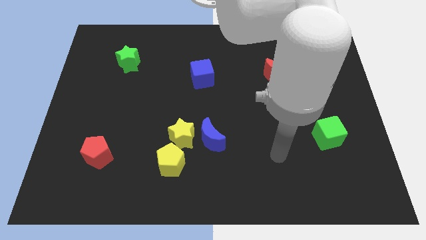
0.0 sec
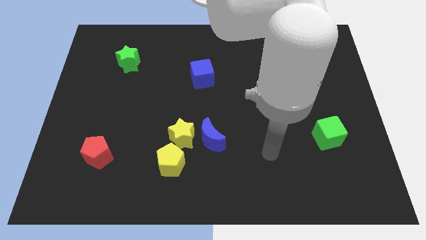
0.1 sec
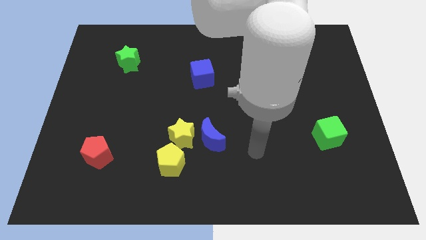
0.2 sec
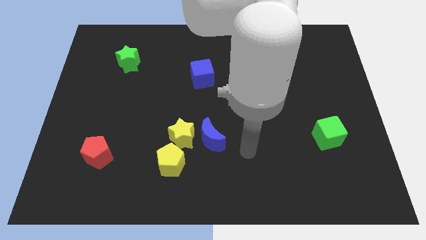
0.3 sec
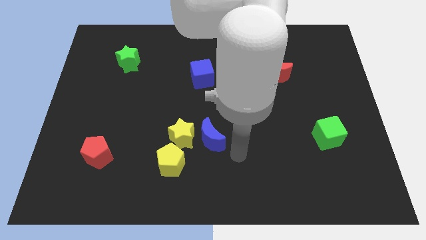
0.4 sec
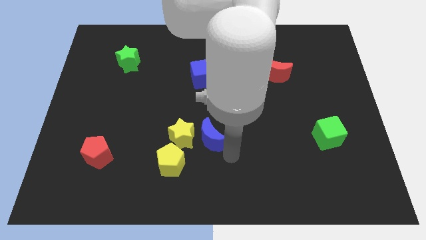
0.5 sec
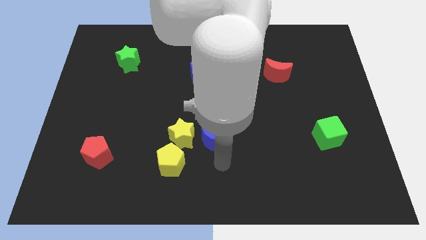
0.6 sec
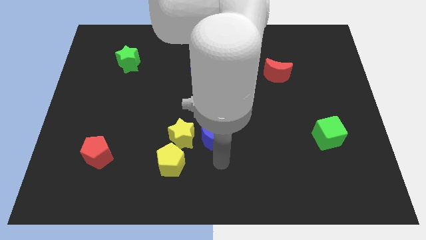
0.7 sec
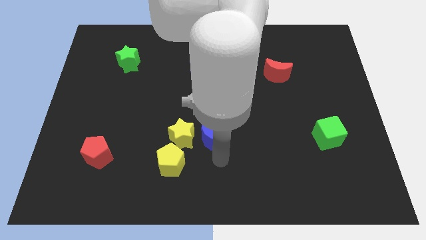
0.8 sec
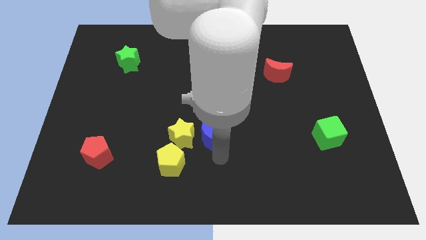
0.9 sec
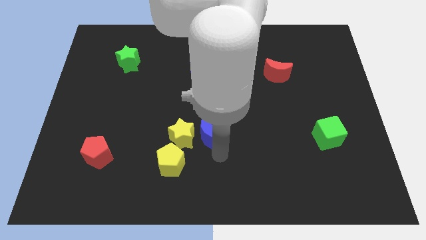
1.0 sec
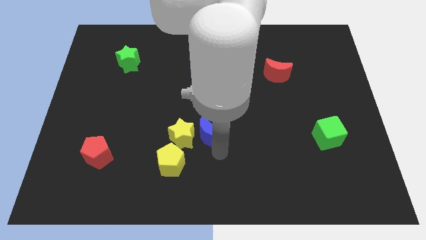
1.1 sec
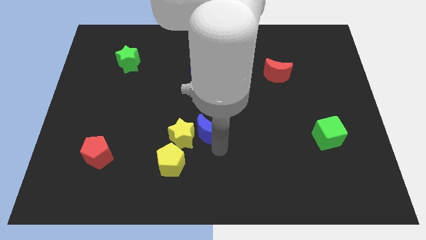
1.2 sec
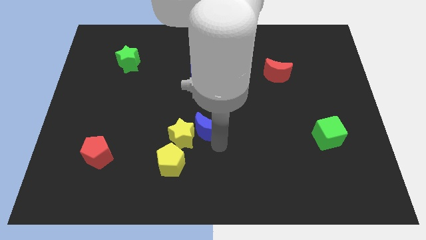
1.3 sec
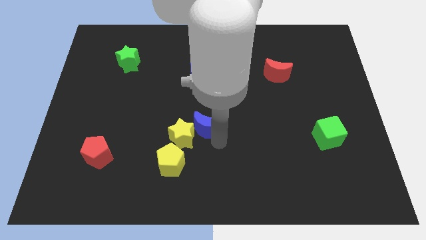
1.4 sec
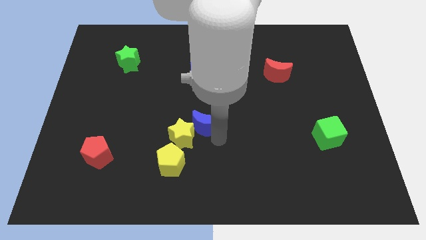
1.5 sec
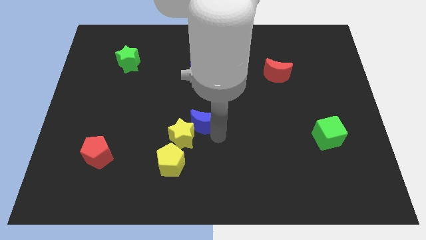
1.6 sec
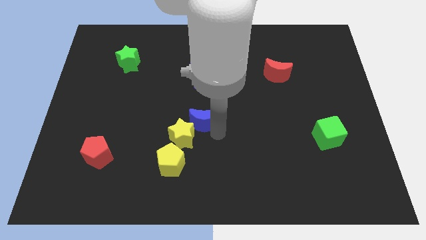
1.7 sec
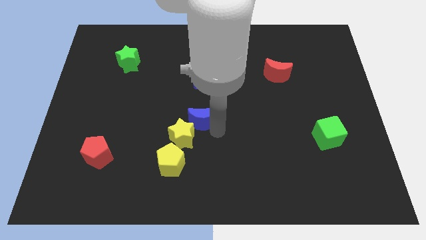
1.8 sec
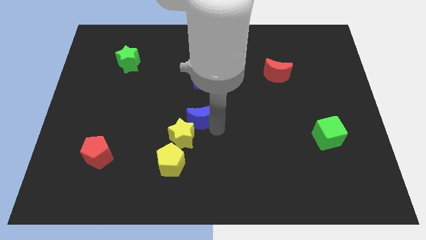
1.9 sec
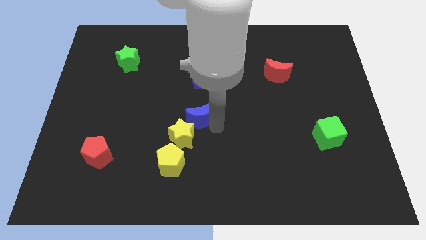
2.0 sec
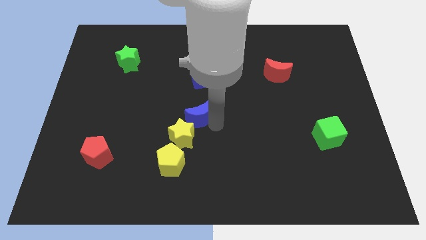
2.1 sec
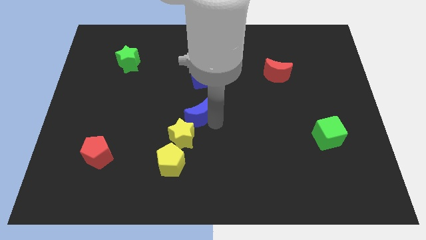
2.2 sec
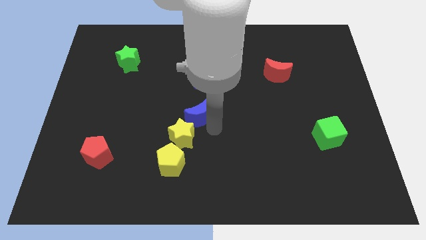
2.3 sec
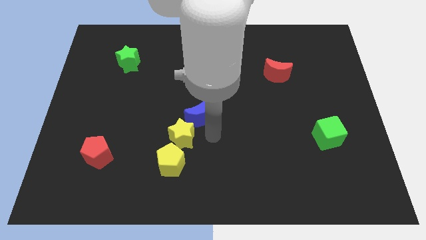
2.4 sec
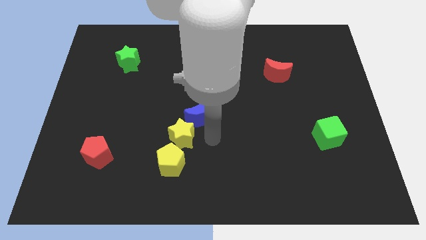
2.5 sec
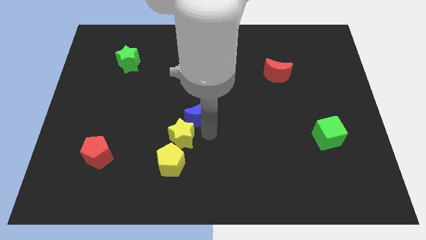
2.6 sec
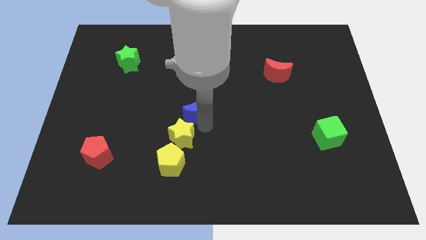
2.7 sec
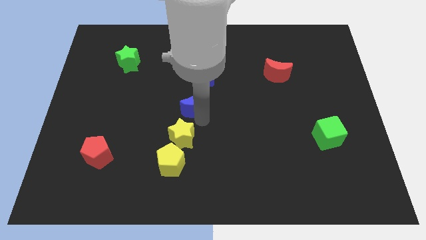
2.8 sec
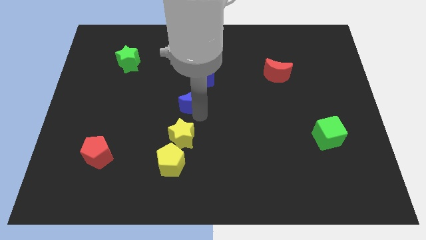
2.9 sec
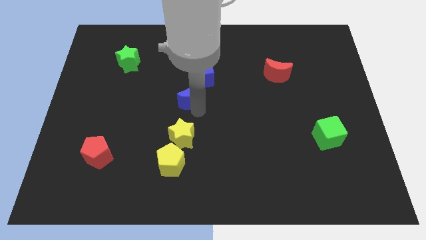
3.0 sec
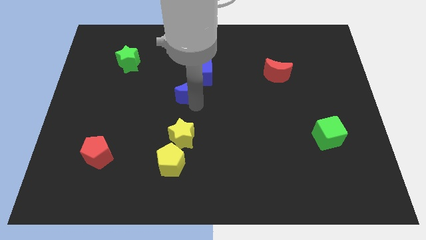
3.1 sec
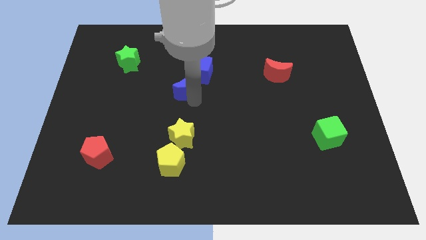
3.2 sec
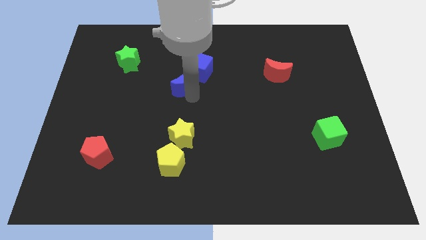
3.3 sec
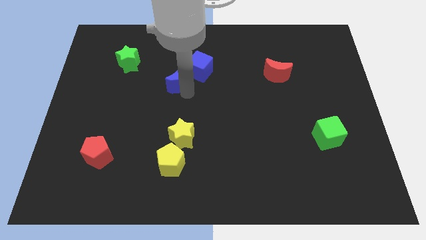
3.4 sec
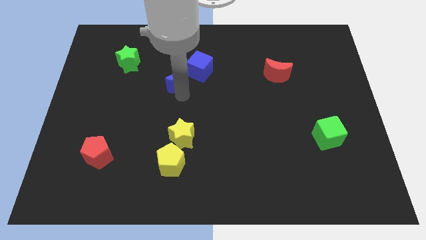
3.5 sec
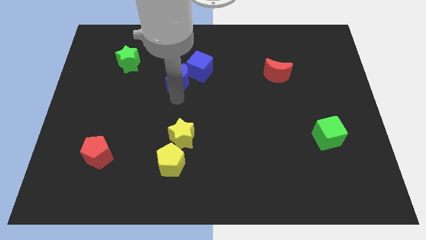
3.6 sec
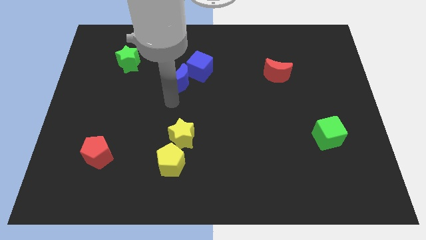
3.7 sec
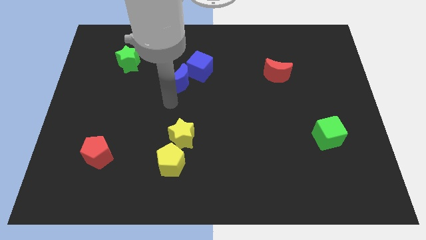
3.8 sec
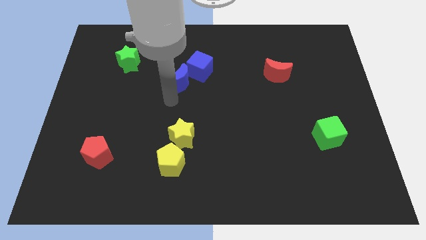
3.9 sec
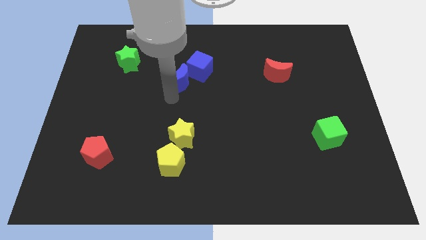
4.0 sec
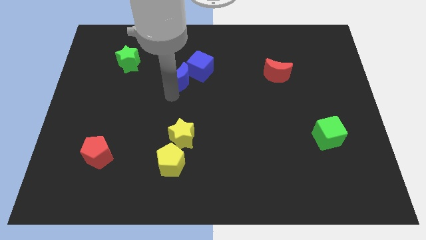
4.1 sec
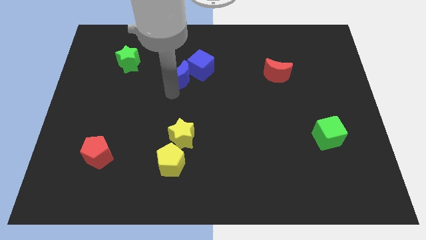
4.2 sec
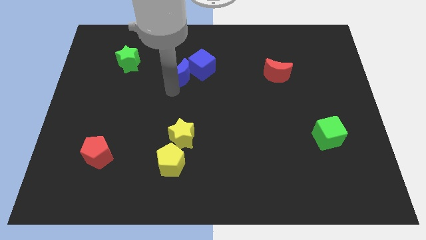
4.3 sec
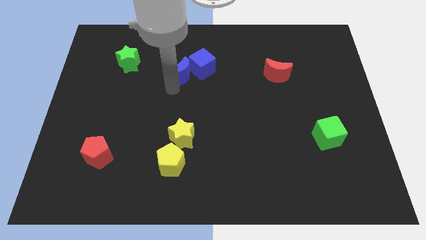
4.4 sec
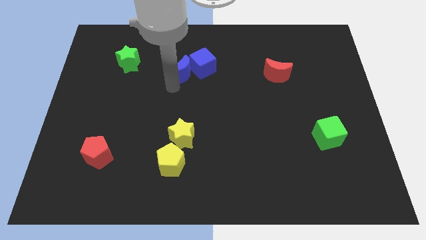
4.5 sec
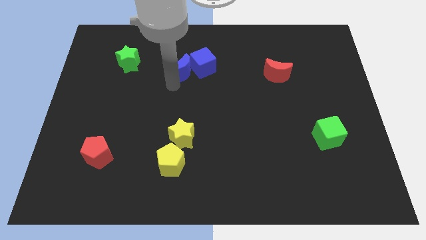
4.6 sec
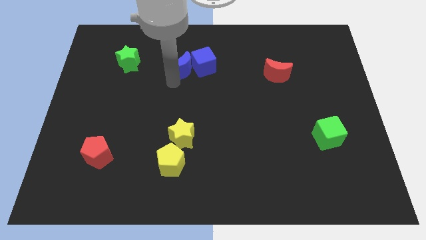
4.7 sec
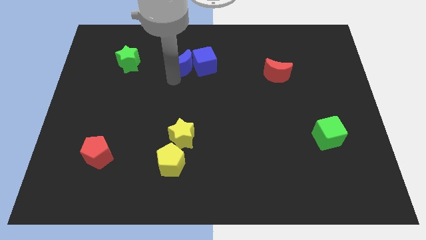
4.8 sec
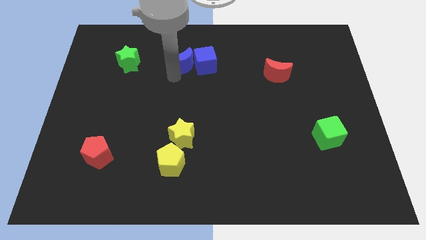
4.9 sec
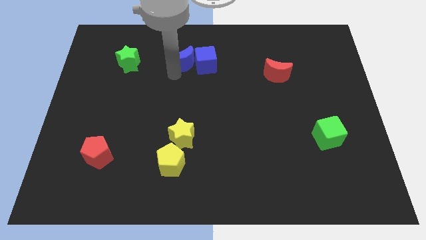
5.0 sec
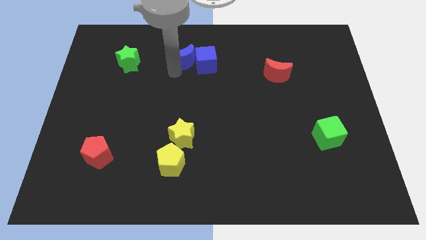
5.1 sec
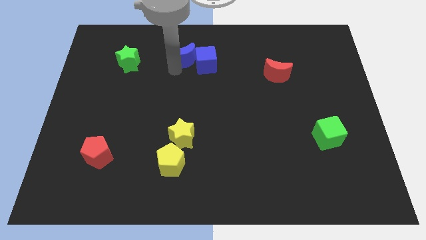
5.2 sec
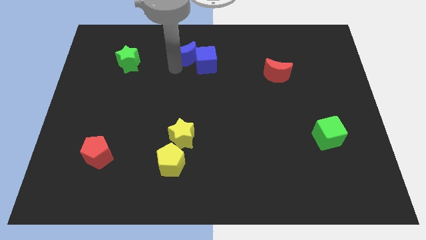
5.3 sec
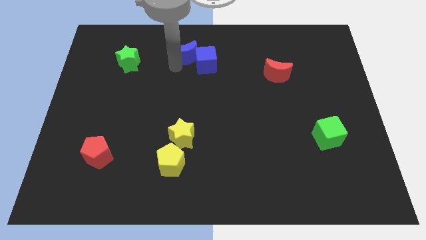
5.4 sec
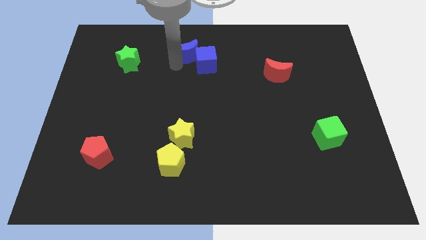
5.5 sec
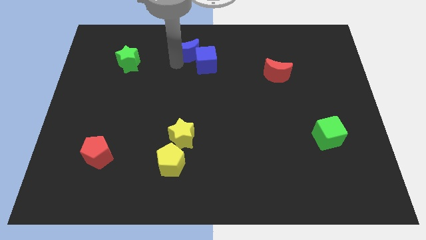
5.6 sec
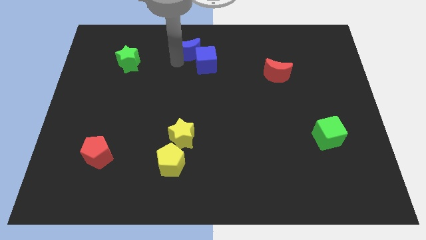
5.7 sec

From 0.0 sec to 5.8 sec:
move the blue moon to the top

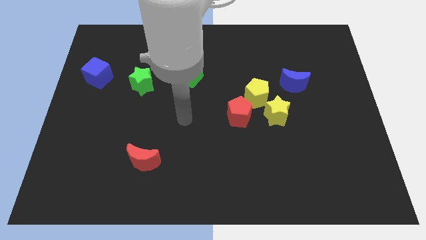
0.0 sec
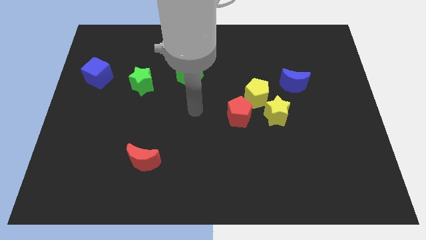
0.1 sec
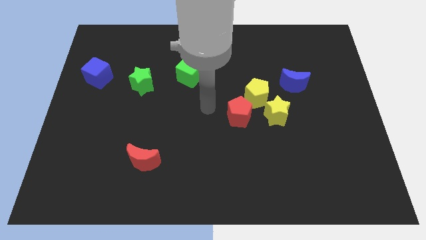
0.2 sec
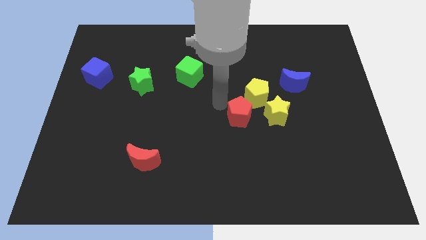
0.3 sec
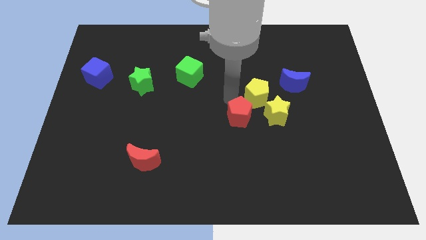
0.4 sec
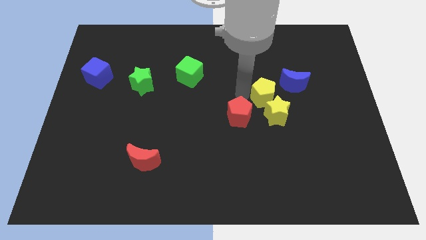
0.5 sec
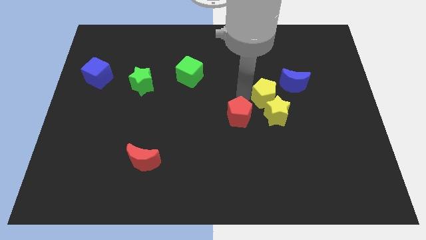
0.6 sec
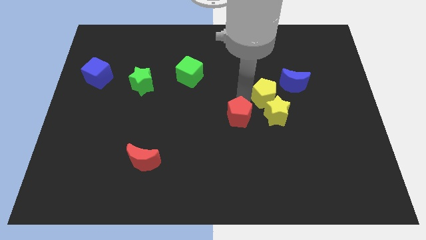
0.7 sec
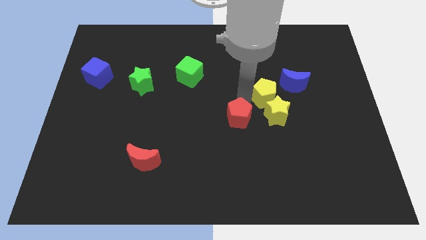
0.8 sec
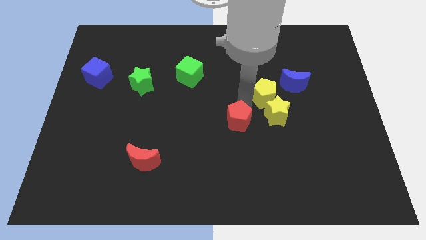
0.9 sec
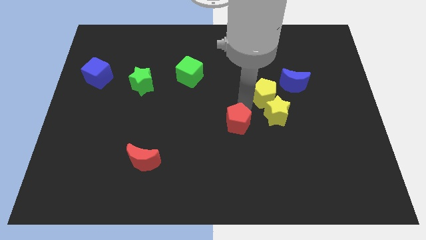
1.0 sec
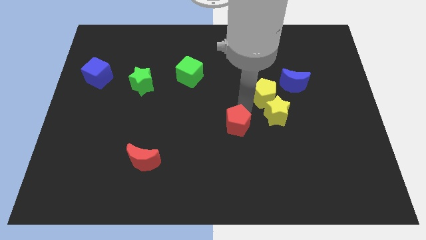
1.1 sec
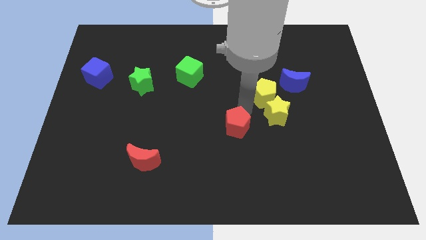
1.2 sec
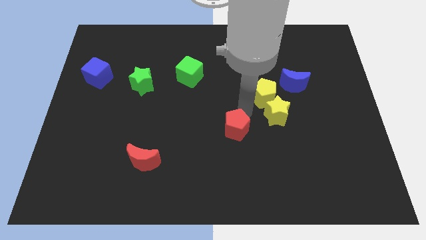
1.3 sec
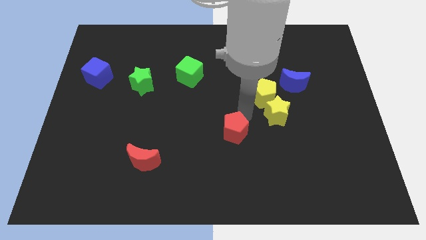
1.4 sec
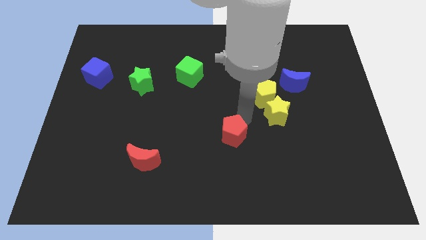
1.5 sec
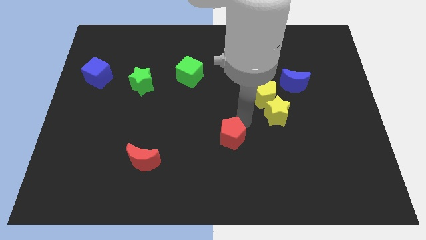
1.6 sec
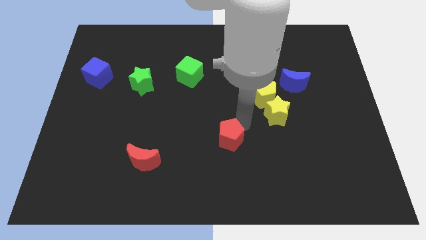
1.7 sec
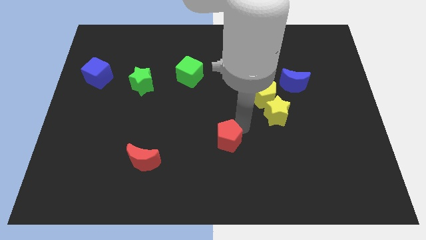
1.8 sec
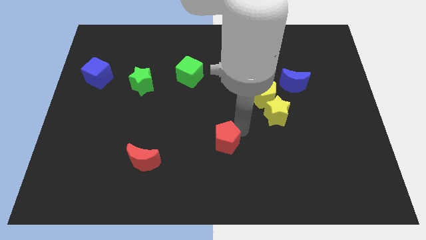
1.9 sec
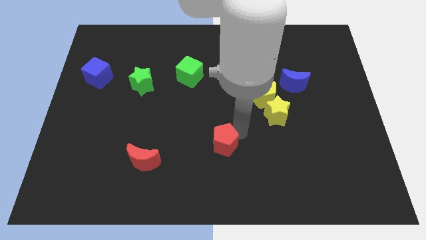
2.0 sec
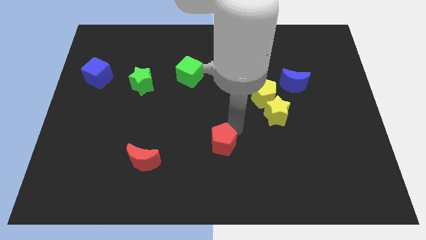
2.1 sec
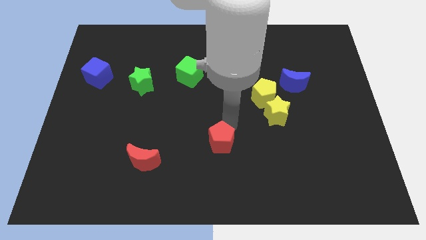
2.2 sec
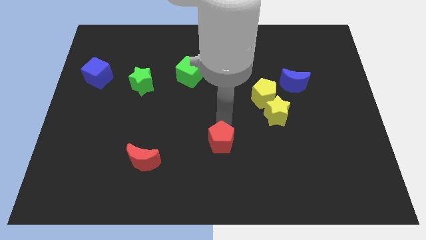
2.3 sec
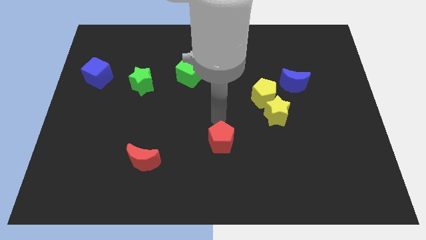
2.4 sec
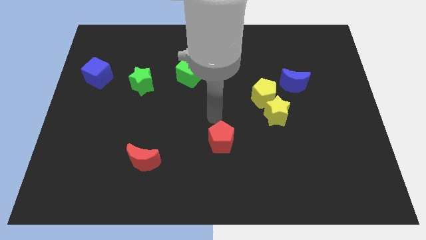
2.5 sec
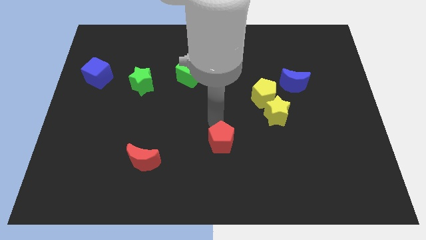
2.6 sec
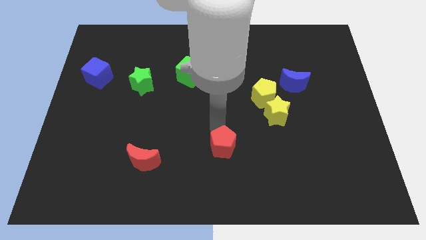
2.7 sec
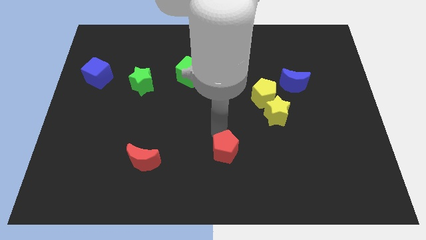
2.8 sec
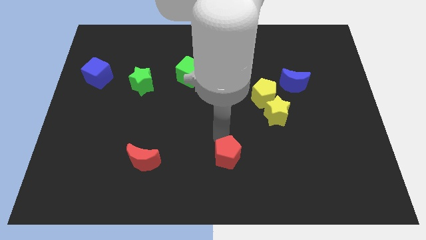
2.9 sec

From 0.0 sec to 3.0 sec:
slide the red pentagon to the bottom
